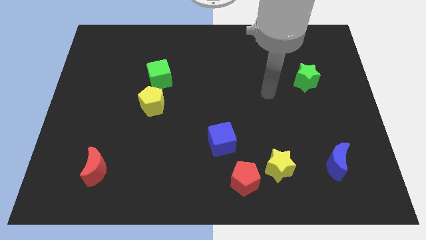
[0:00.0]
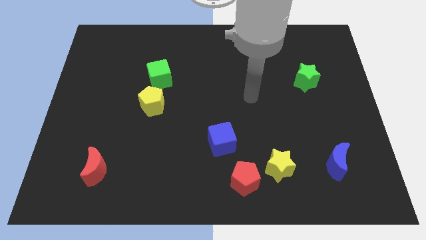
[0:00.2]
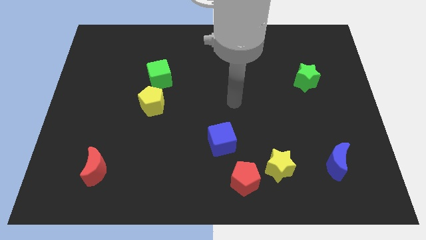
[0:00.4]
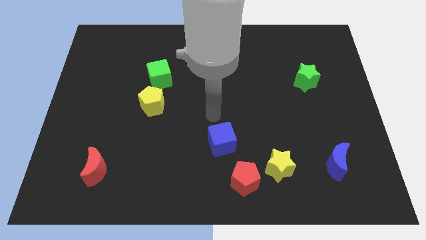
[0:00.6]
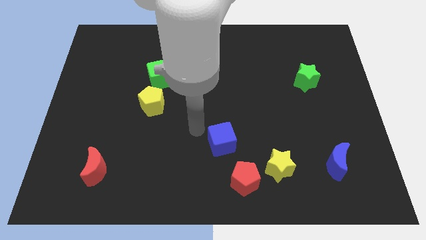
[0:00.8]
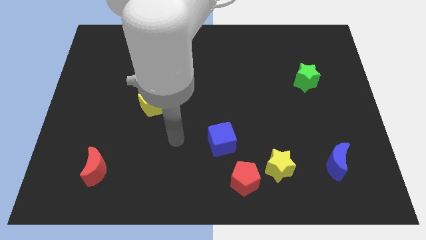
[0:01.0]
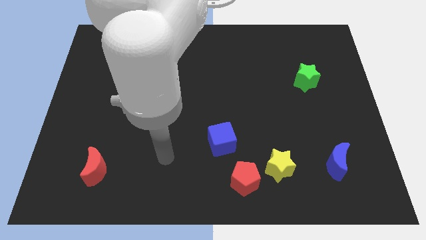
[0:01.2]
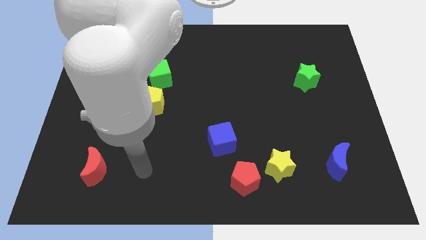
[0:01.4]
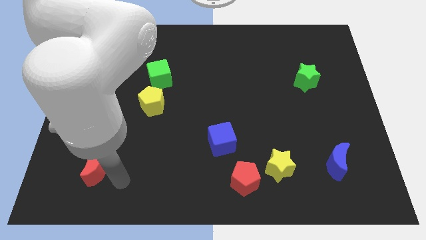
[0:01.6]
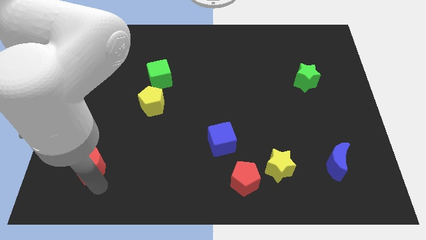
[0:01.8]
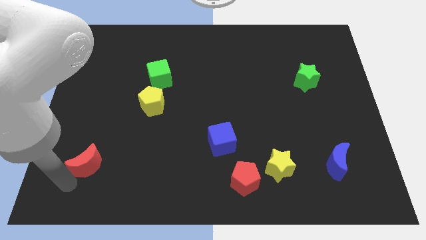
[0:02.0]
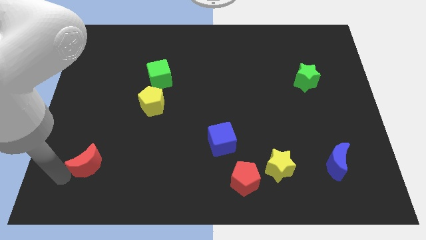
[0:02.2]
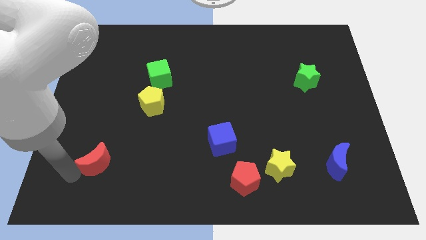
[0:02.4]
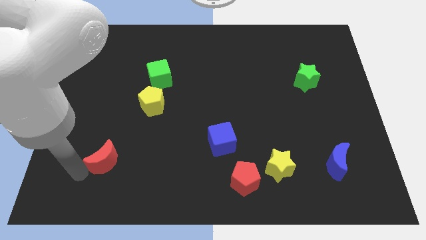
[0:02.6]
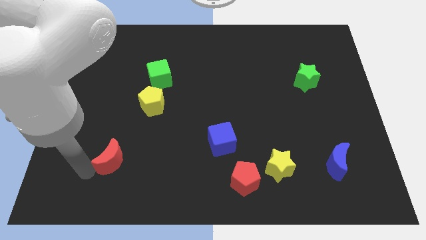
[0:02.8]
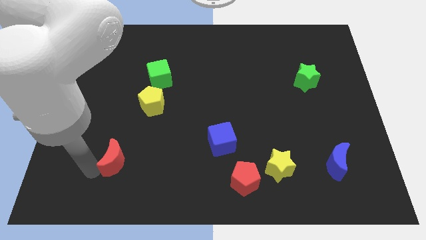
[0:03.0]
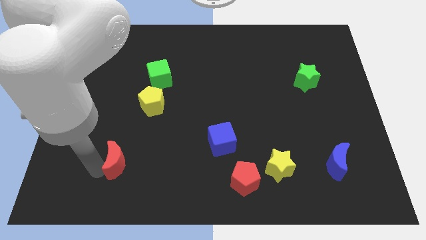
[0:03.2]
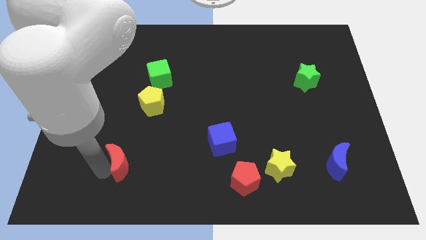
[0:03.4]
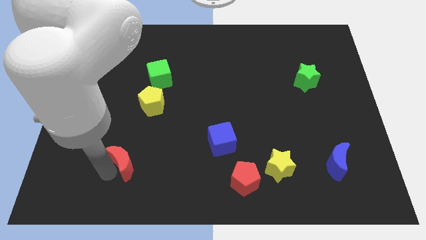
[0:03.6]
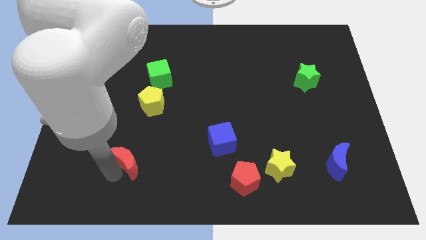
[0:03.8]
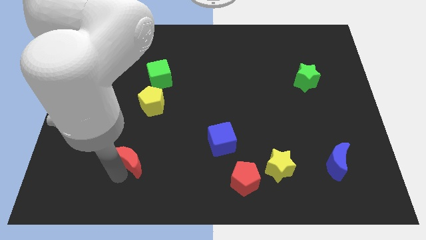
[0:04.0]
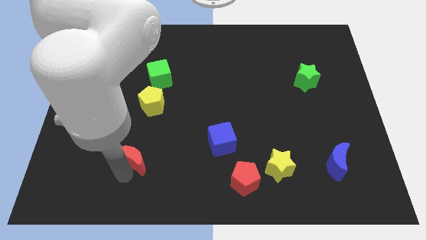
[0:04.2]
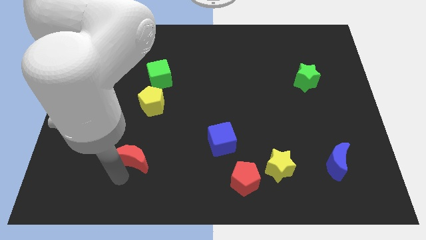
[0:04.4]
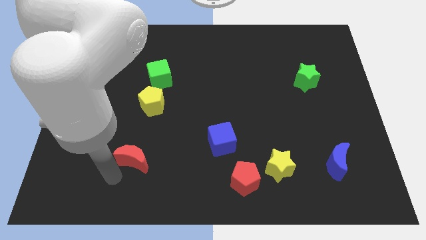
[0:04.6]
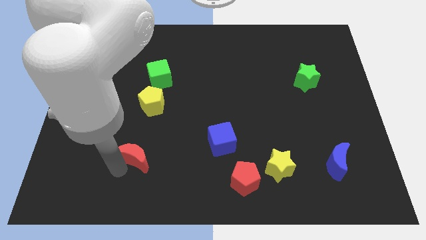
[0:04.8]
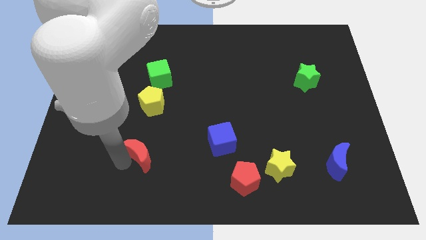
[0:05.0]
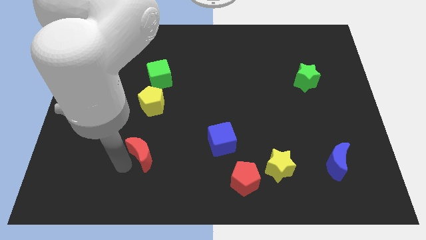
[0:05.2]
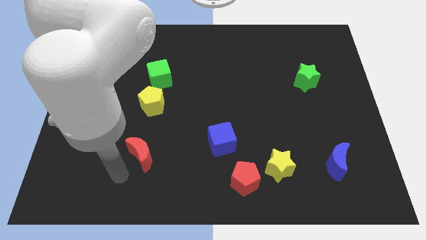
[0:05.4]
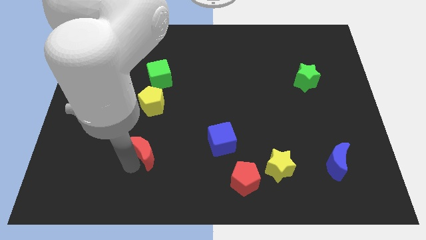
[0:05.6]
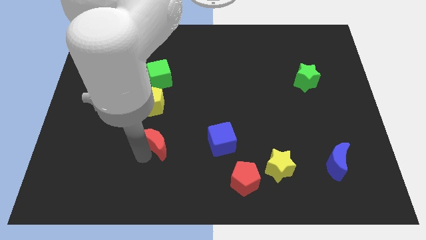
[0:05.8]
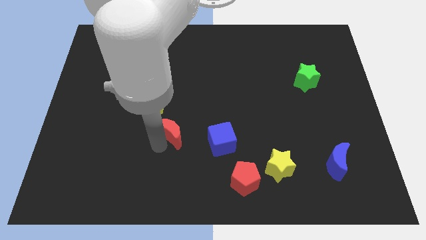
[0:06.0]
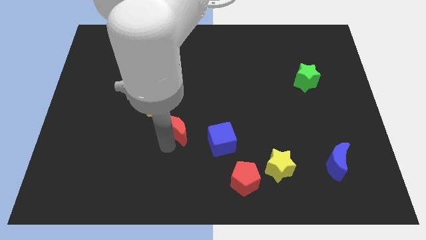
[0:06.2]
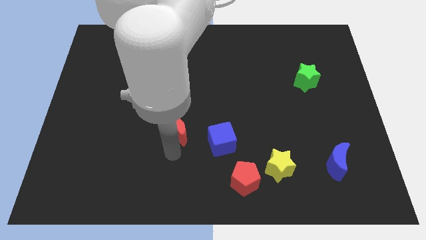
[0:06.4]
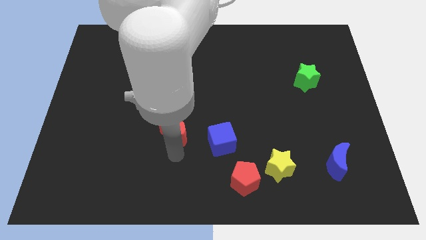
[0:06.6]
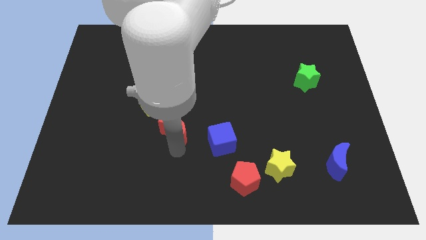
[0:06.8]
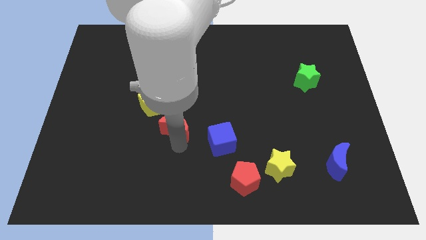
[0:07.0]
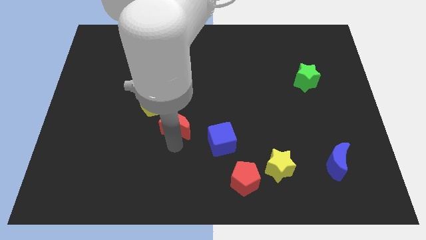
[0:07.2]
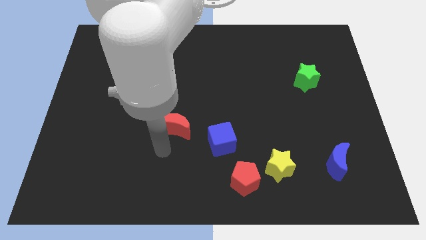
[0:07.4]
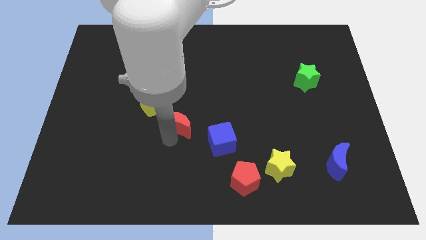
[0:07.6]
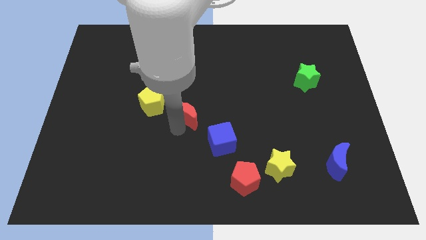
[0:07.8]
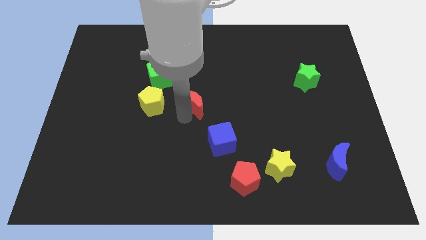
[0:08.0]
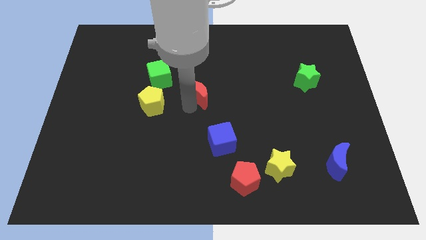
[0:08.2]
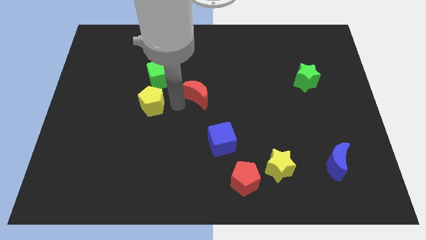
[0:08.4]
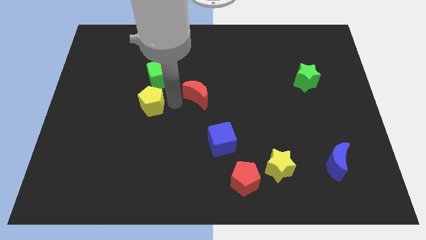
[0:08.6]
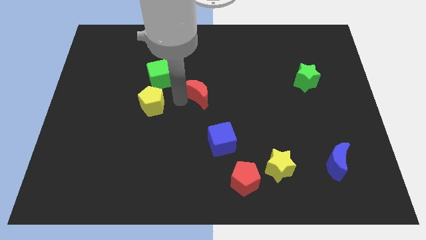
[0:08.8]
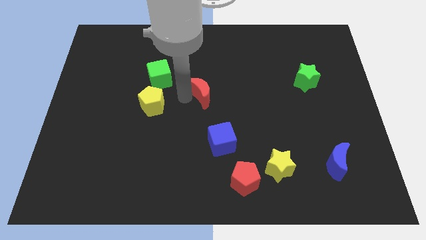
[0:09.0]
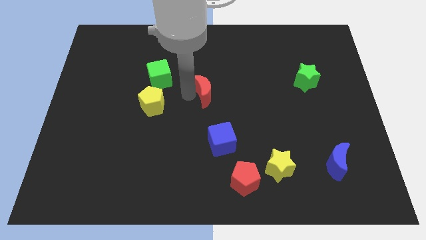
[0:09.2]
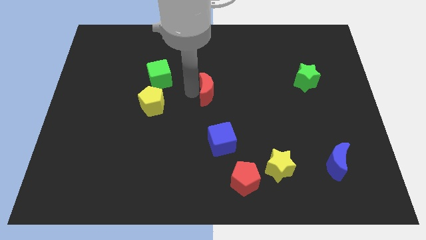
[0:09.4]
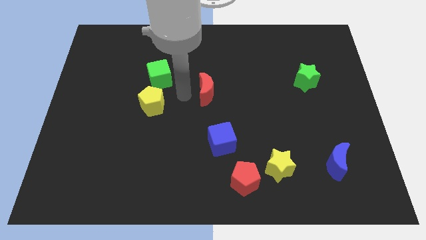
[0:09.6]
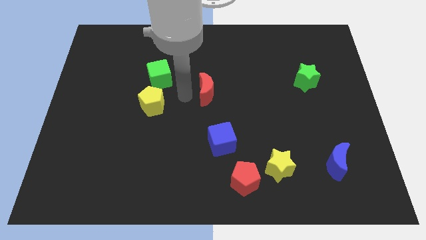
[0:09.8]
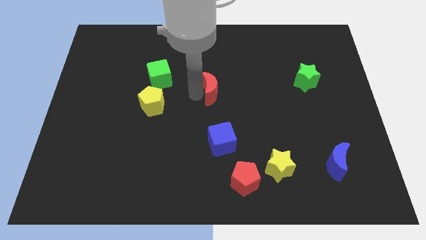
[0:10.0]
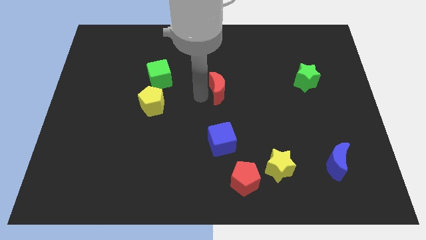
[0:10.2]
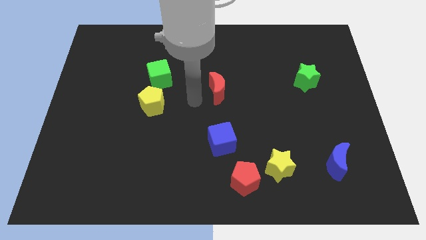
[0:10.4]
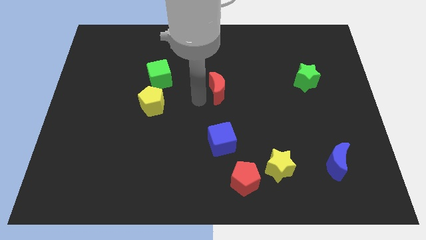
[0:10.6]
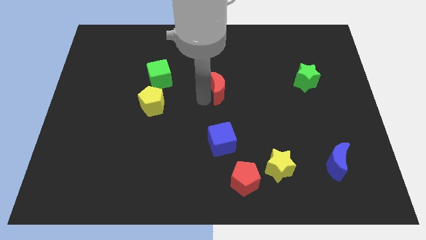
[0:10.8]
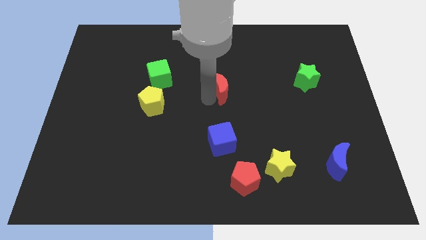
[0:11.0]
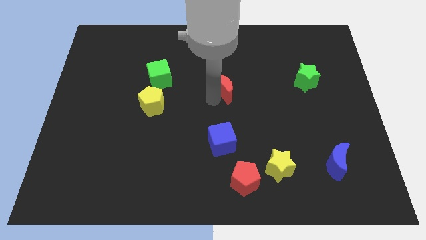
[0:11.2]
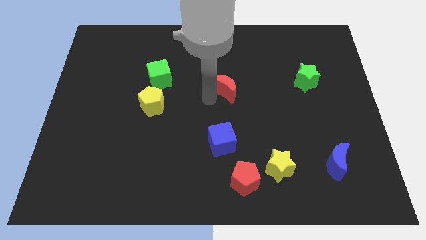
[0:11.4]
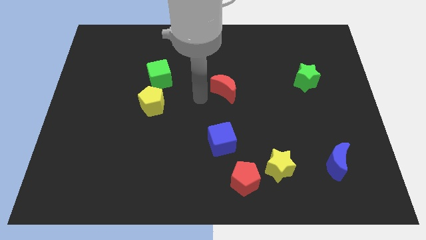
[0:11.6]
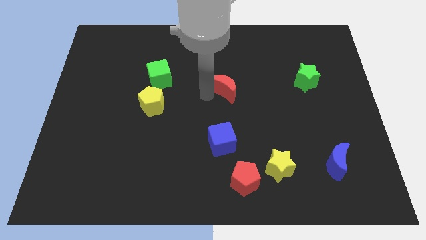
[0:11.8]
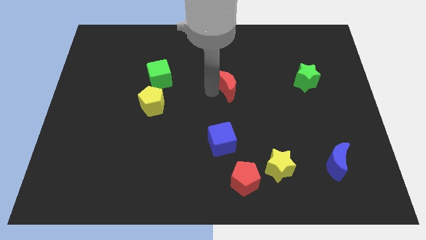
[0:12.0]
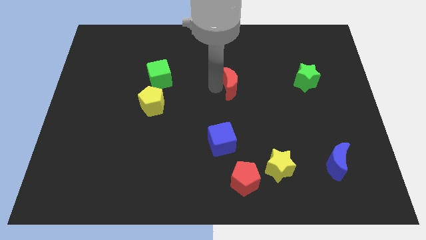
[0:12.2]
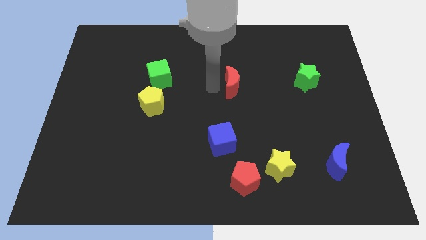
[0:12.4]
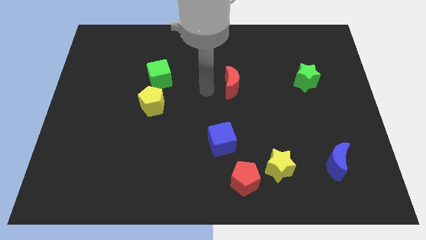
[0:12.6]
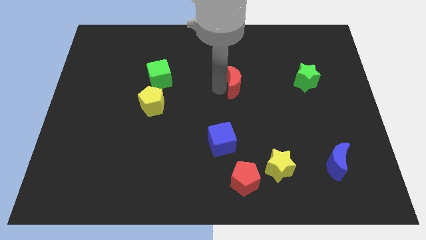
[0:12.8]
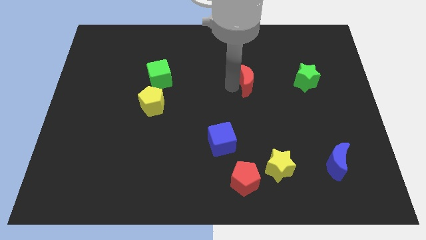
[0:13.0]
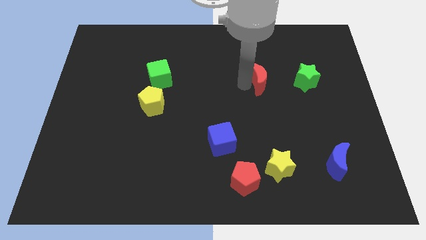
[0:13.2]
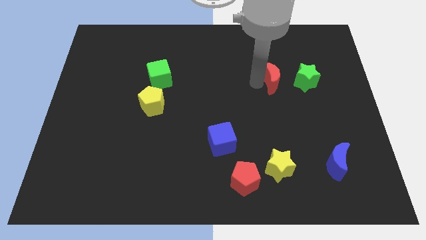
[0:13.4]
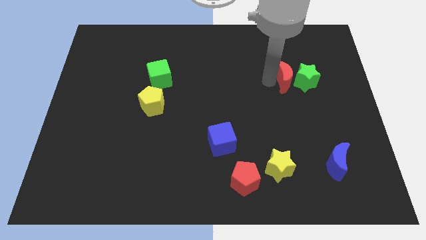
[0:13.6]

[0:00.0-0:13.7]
slide the red moon next to the green star
